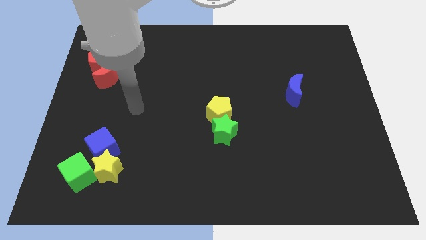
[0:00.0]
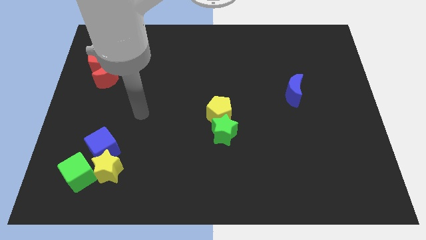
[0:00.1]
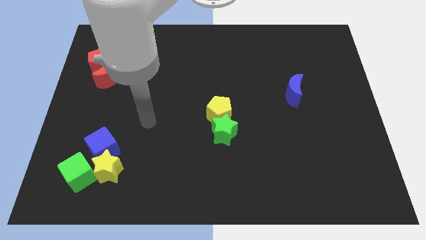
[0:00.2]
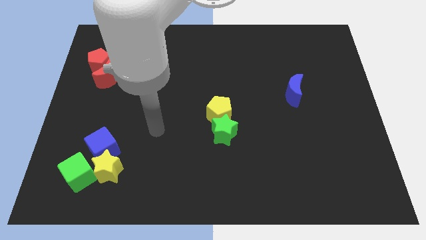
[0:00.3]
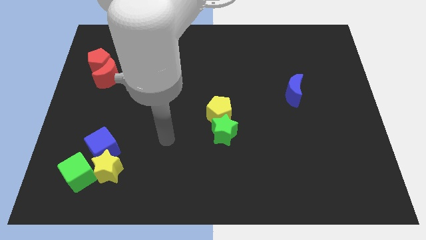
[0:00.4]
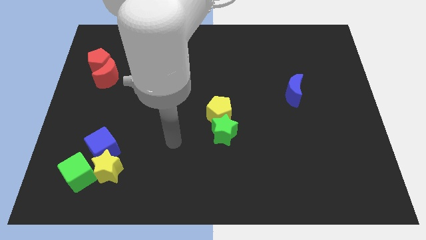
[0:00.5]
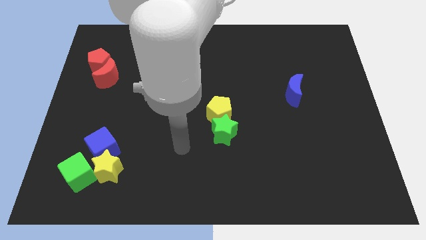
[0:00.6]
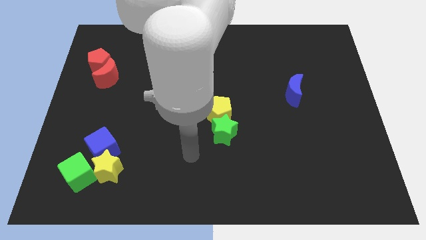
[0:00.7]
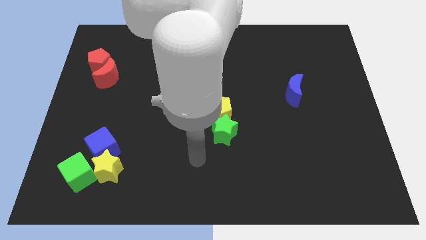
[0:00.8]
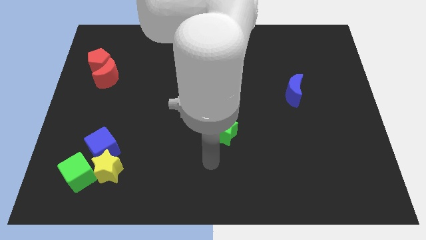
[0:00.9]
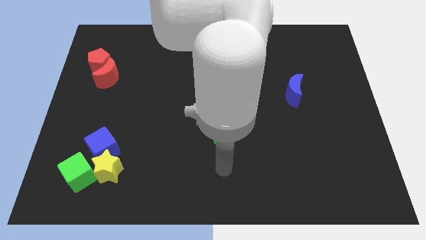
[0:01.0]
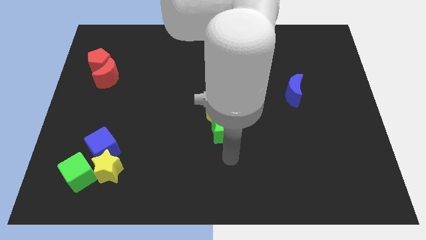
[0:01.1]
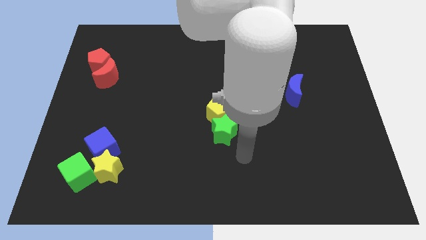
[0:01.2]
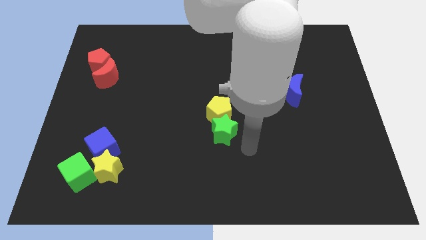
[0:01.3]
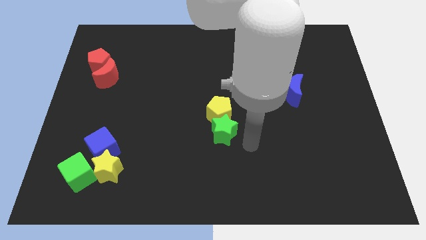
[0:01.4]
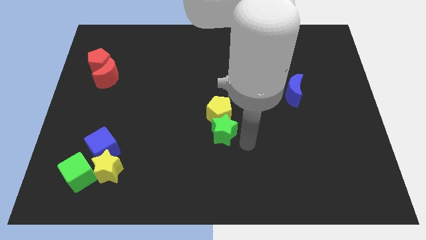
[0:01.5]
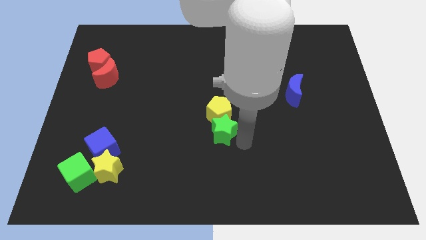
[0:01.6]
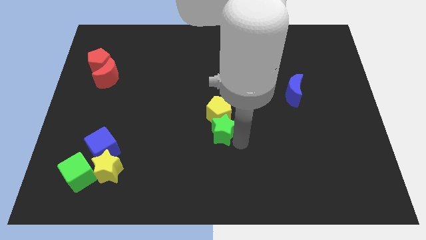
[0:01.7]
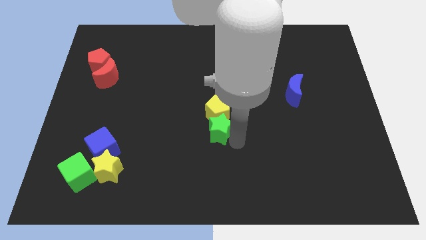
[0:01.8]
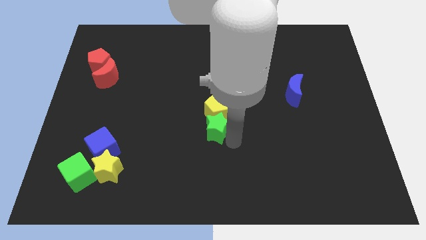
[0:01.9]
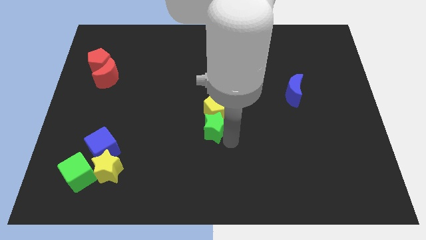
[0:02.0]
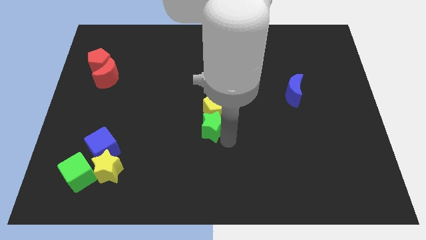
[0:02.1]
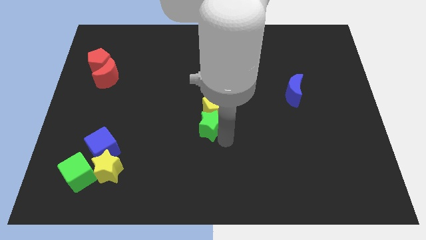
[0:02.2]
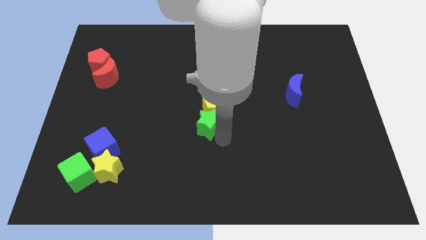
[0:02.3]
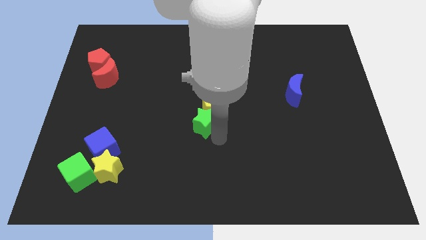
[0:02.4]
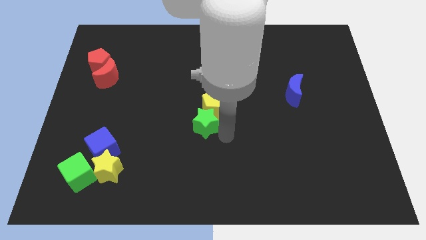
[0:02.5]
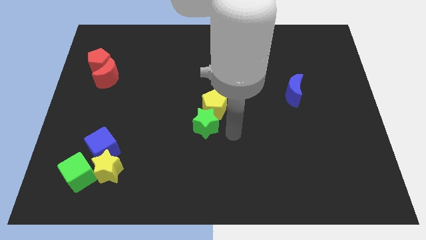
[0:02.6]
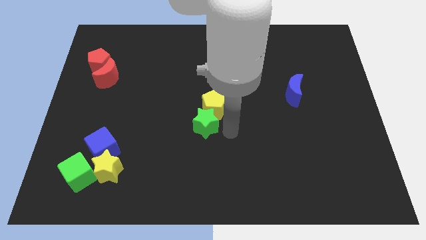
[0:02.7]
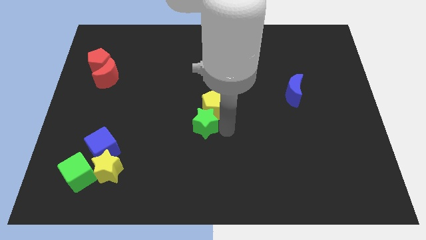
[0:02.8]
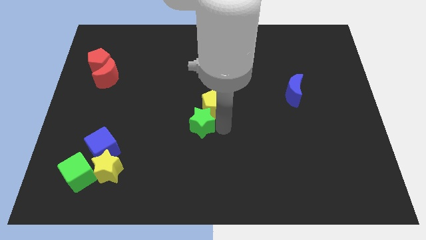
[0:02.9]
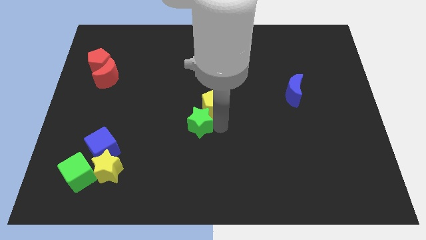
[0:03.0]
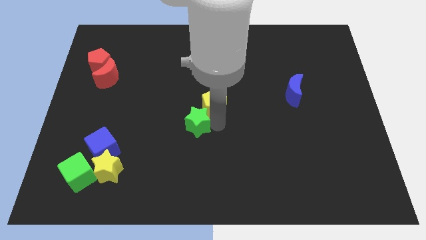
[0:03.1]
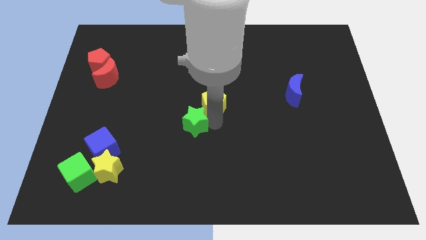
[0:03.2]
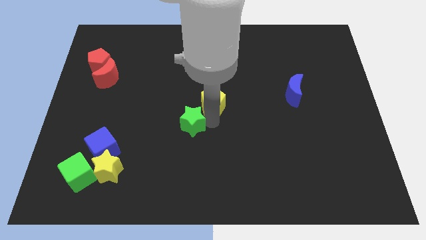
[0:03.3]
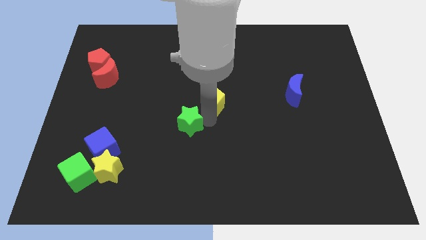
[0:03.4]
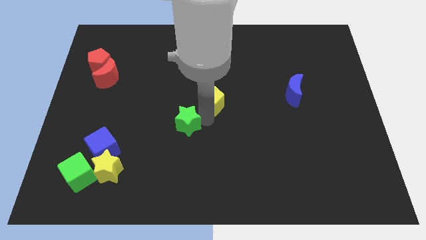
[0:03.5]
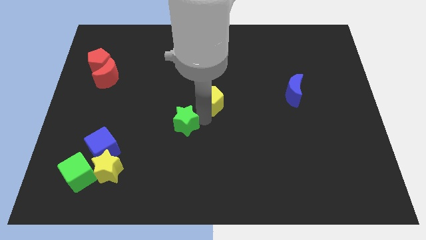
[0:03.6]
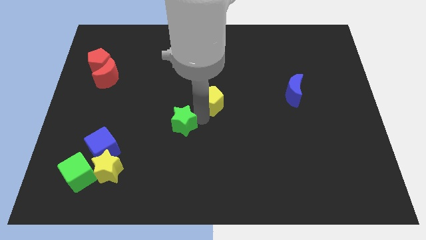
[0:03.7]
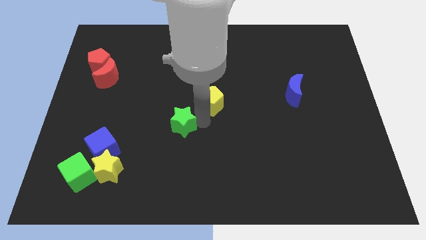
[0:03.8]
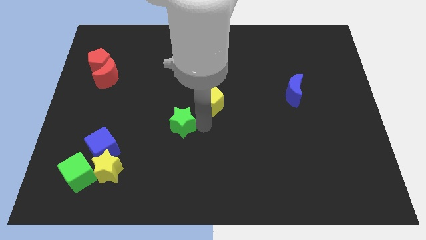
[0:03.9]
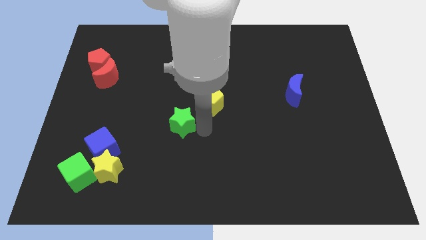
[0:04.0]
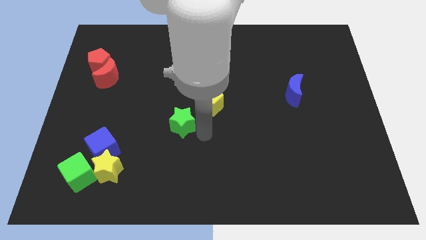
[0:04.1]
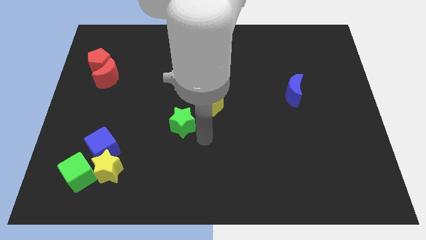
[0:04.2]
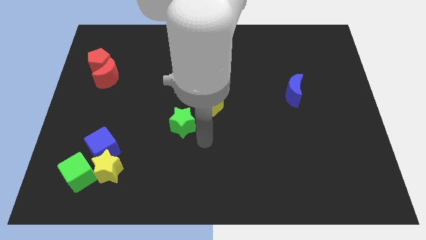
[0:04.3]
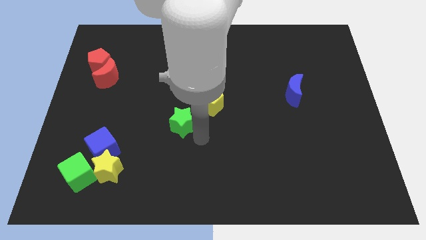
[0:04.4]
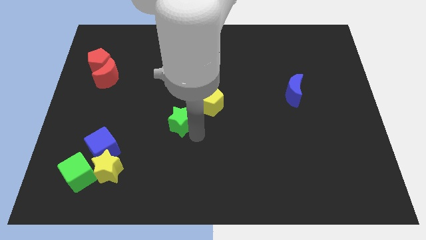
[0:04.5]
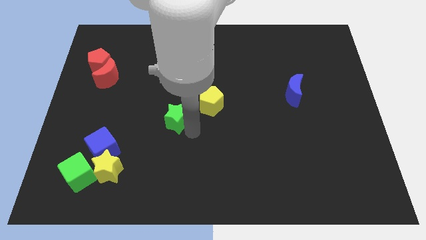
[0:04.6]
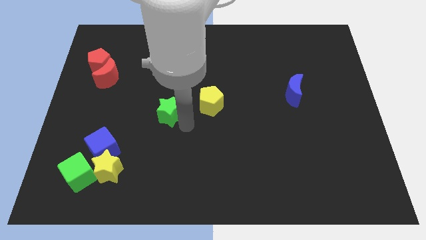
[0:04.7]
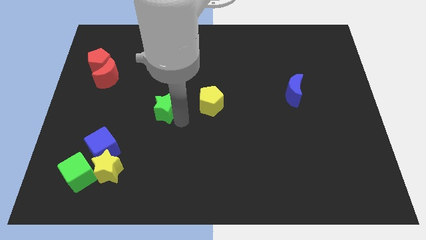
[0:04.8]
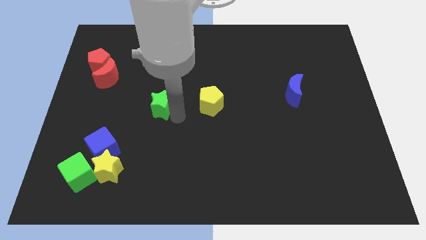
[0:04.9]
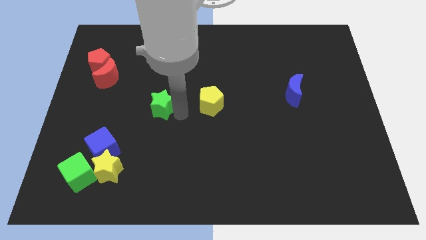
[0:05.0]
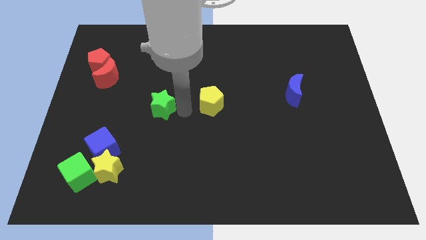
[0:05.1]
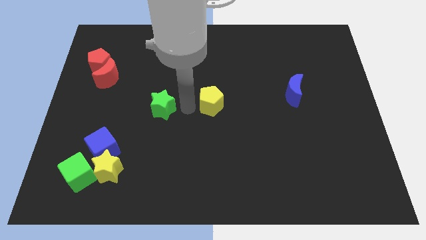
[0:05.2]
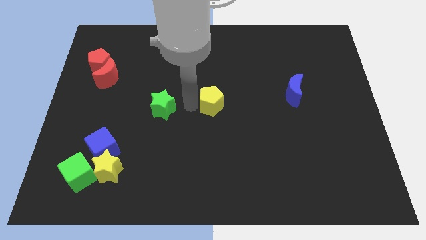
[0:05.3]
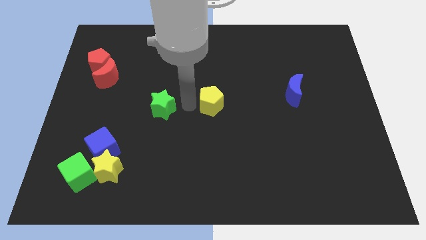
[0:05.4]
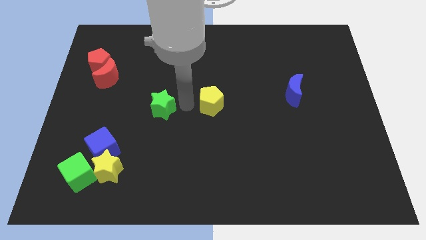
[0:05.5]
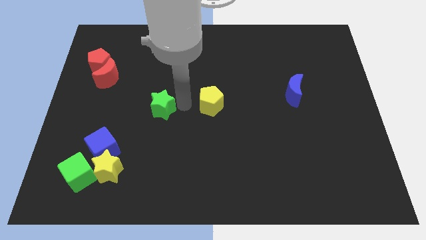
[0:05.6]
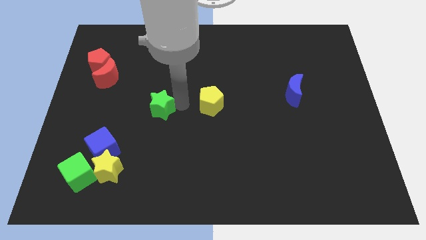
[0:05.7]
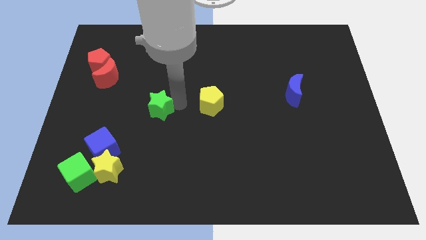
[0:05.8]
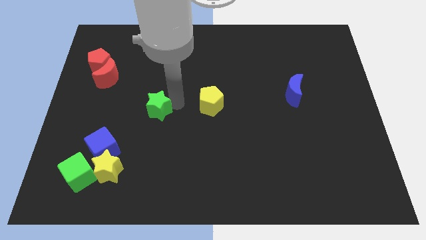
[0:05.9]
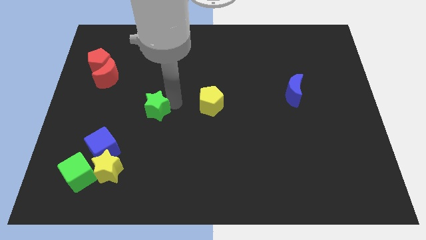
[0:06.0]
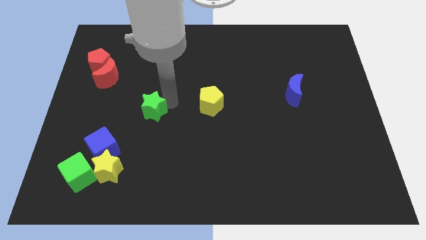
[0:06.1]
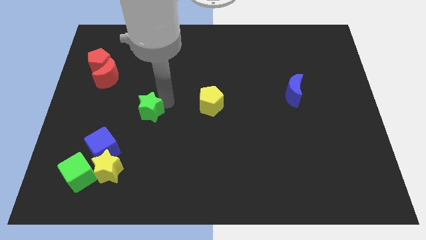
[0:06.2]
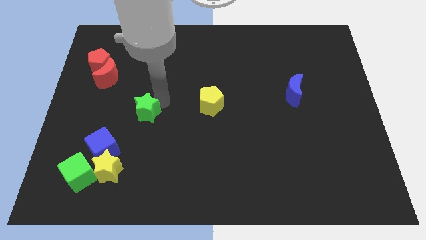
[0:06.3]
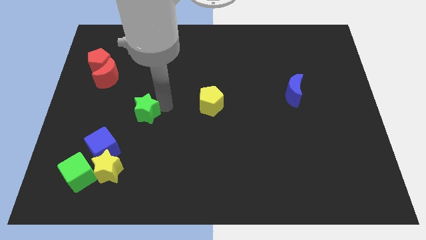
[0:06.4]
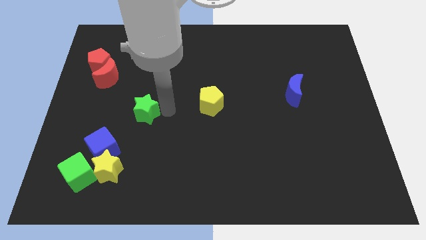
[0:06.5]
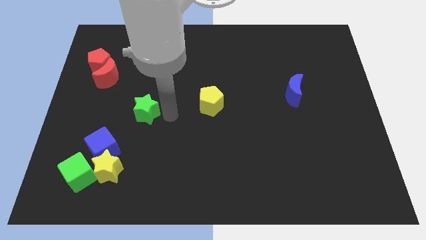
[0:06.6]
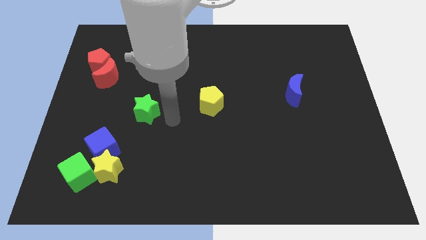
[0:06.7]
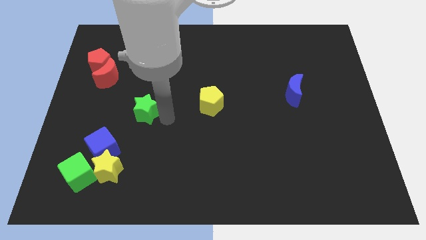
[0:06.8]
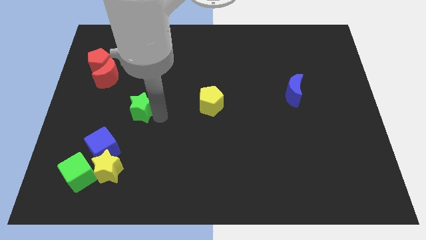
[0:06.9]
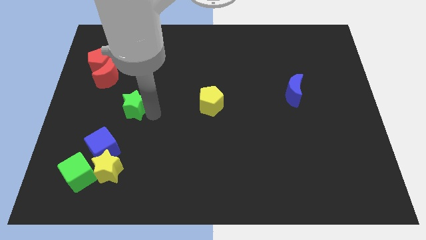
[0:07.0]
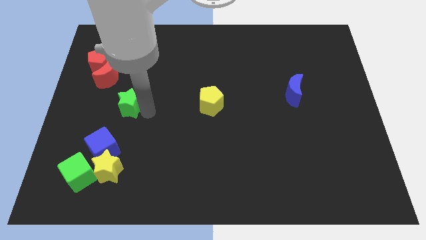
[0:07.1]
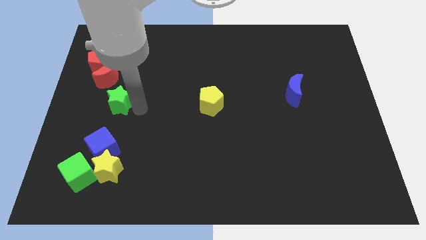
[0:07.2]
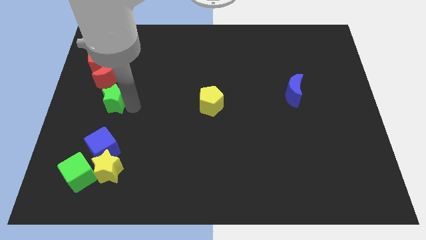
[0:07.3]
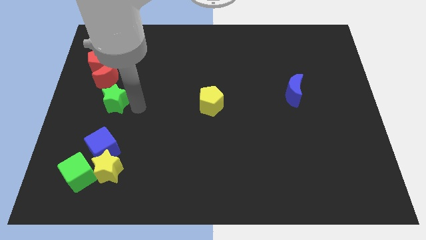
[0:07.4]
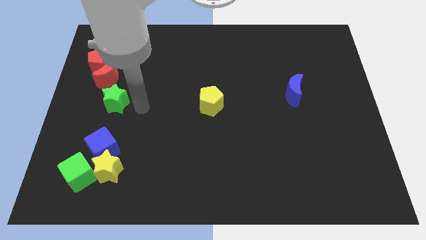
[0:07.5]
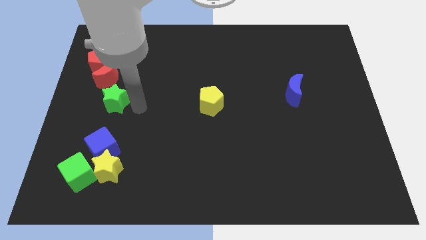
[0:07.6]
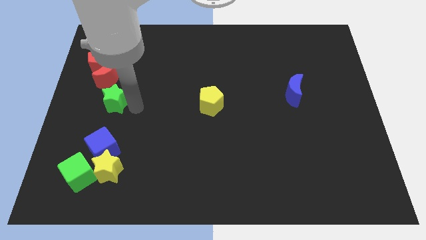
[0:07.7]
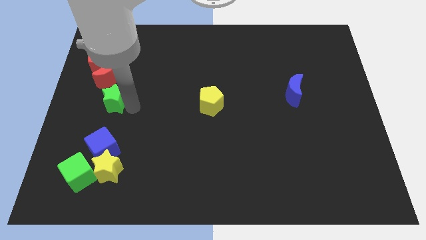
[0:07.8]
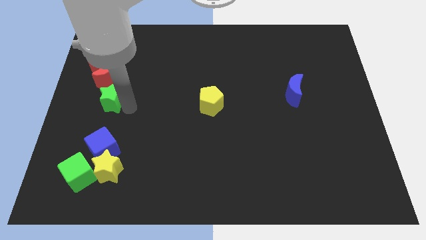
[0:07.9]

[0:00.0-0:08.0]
move the green star to the bottom of the red pentagon
